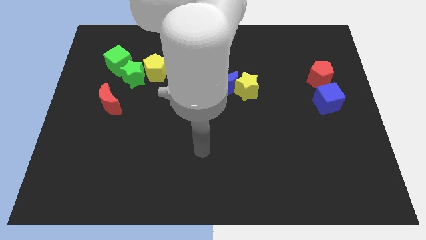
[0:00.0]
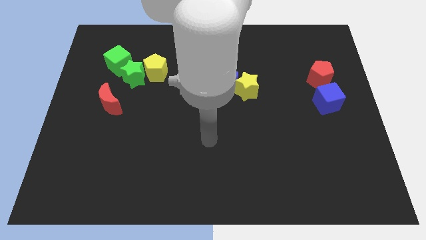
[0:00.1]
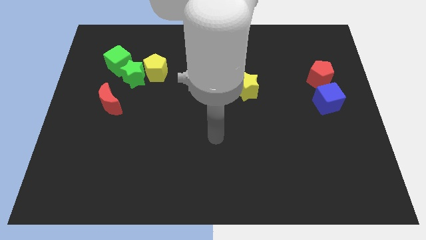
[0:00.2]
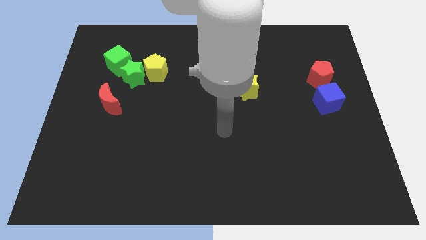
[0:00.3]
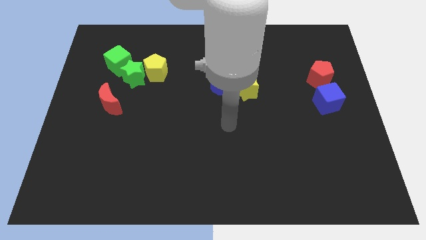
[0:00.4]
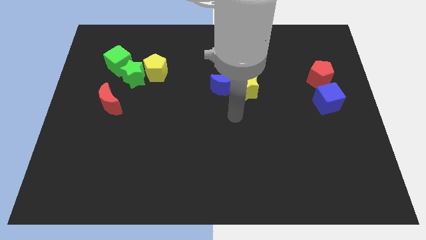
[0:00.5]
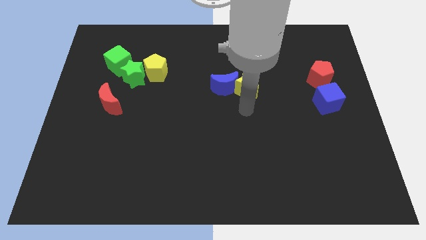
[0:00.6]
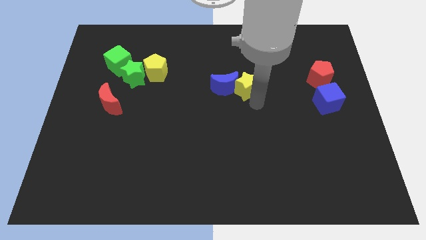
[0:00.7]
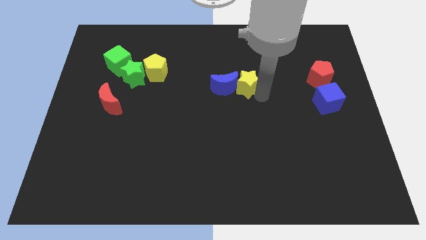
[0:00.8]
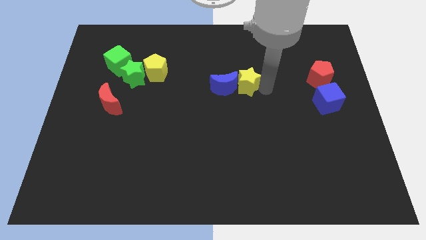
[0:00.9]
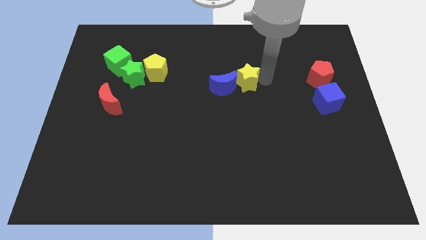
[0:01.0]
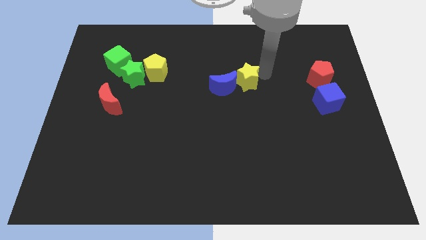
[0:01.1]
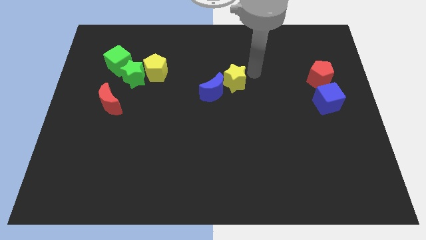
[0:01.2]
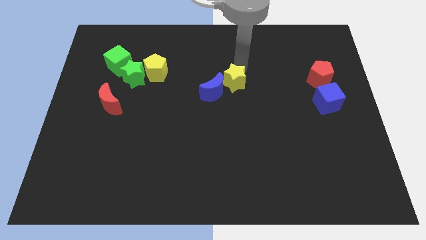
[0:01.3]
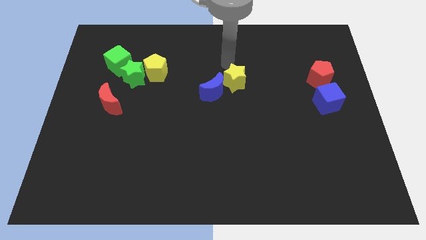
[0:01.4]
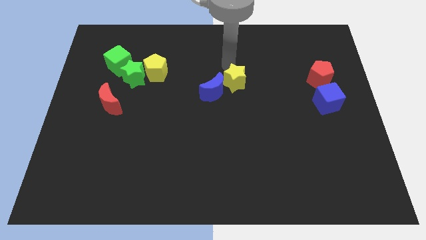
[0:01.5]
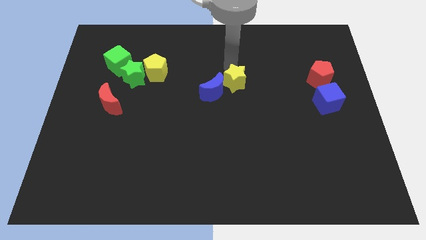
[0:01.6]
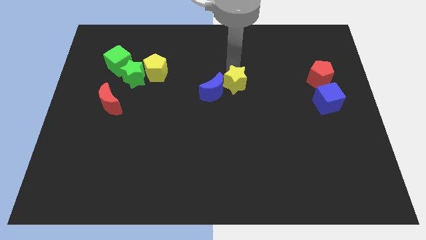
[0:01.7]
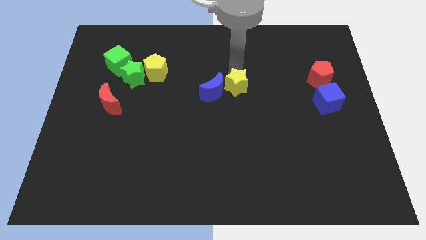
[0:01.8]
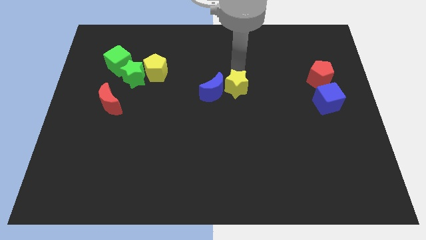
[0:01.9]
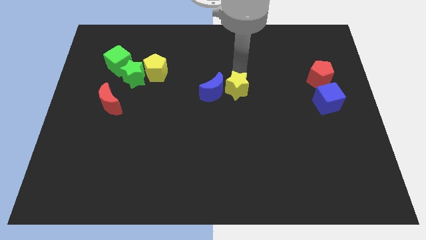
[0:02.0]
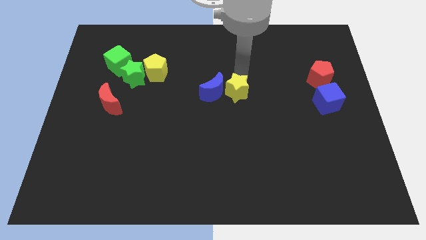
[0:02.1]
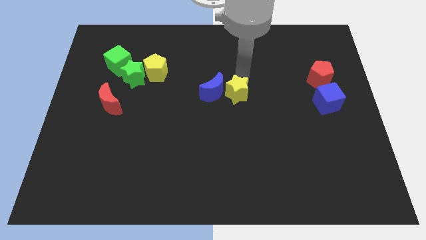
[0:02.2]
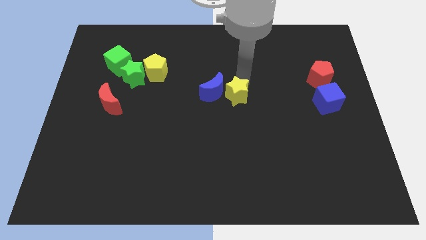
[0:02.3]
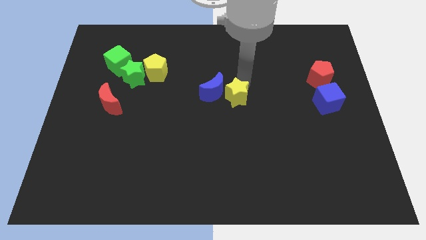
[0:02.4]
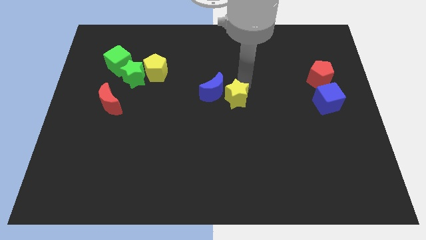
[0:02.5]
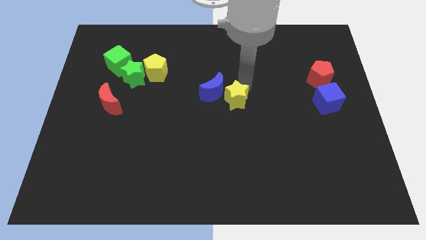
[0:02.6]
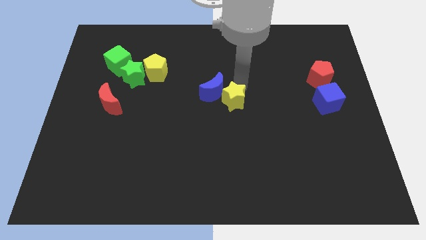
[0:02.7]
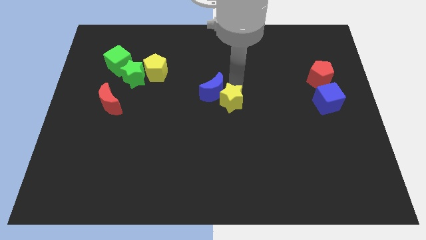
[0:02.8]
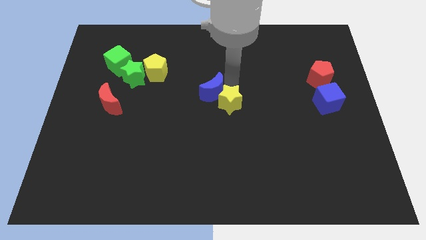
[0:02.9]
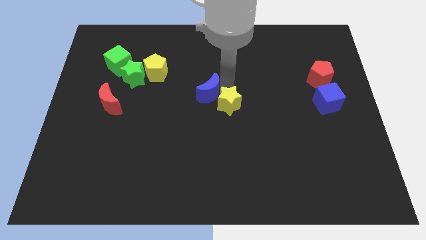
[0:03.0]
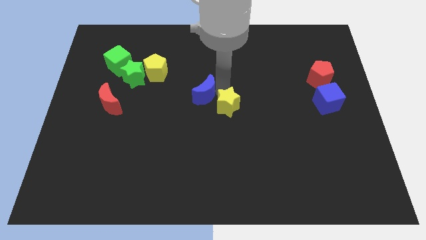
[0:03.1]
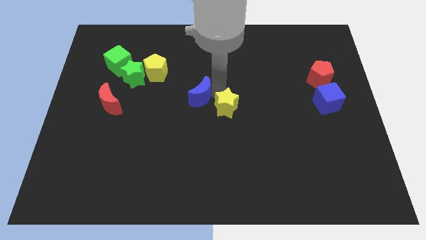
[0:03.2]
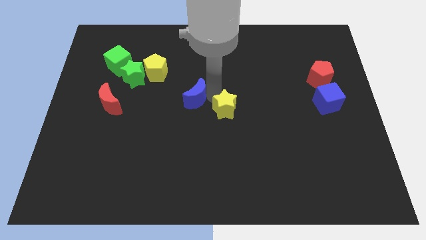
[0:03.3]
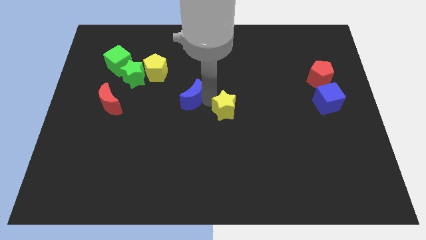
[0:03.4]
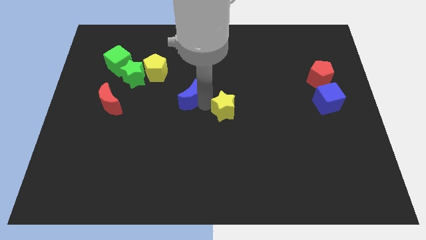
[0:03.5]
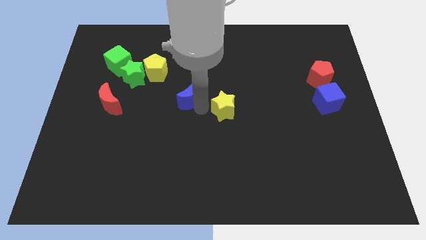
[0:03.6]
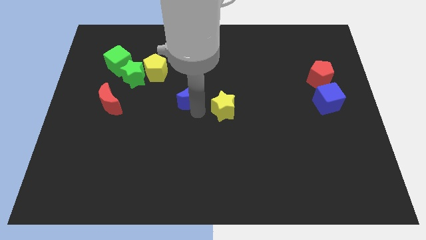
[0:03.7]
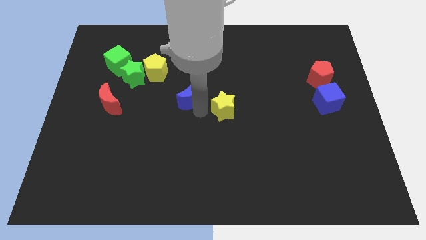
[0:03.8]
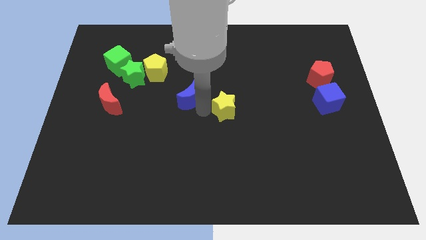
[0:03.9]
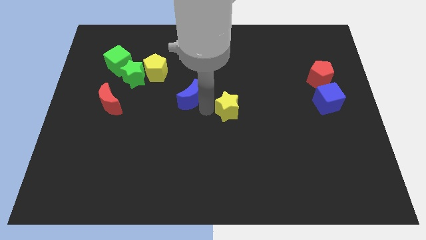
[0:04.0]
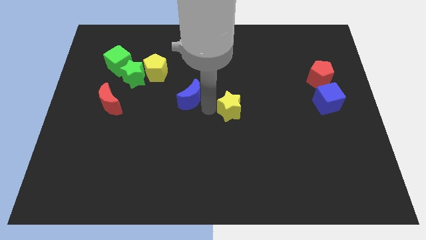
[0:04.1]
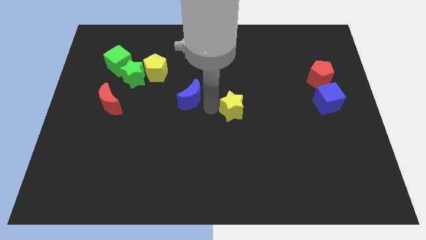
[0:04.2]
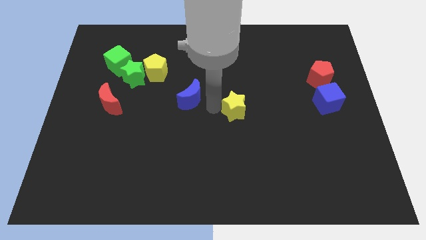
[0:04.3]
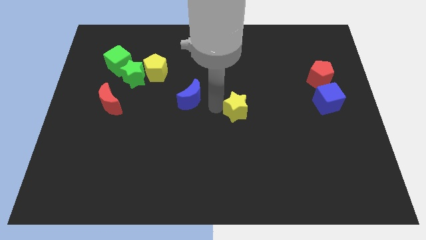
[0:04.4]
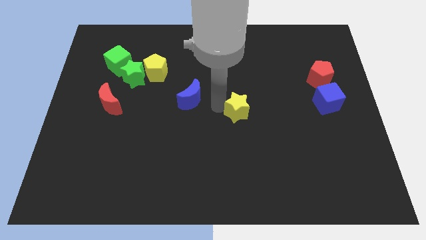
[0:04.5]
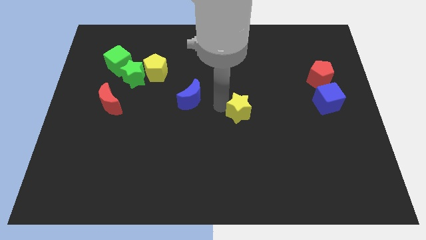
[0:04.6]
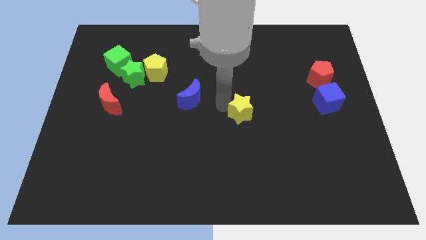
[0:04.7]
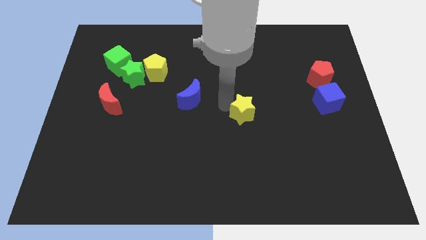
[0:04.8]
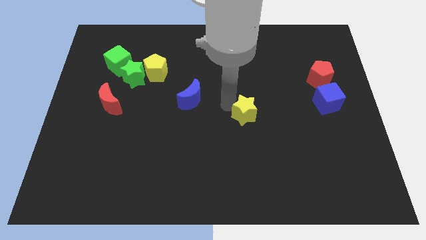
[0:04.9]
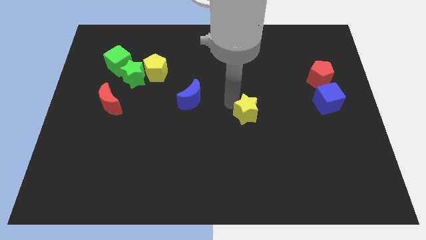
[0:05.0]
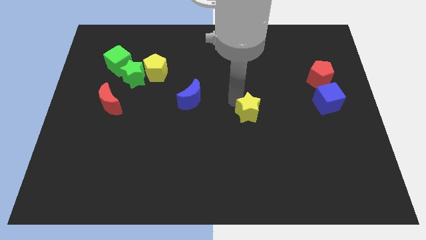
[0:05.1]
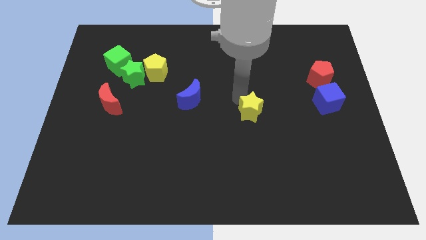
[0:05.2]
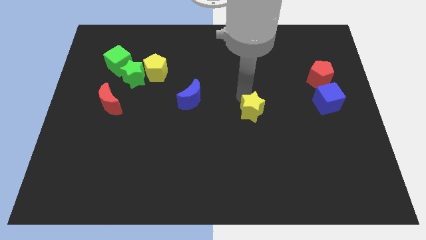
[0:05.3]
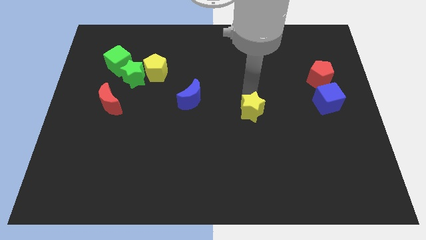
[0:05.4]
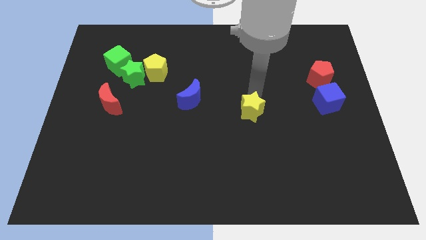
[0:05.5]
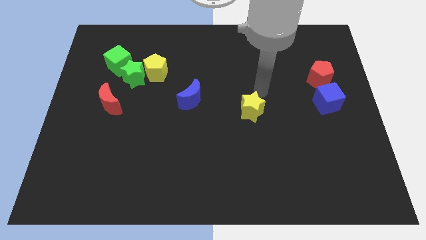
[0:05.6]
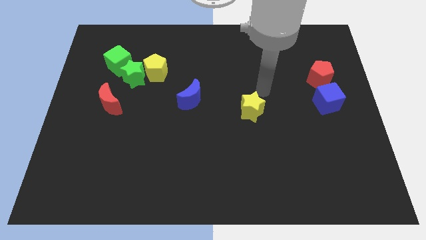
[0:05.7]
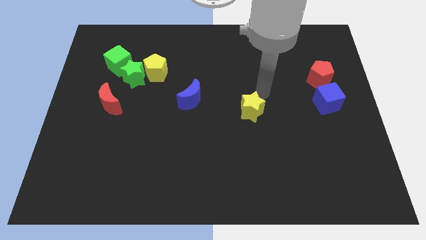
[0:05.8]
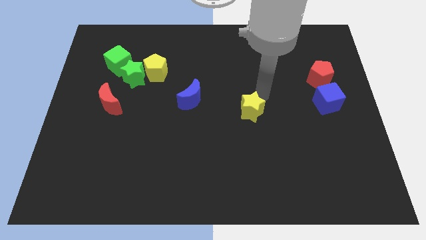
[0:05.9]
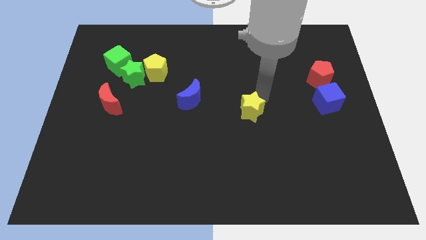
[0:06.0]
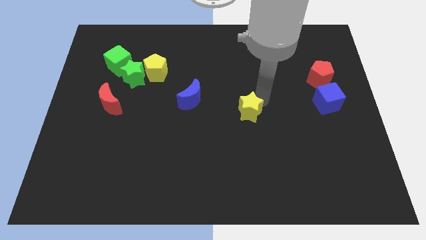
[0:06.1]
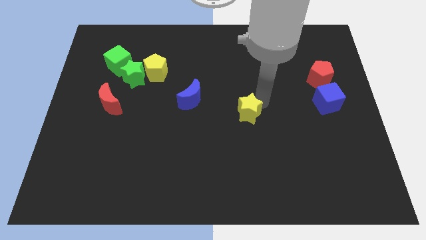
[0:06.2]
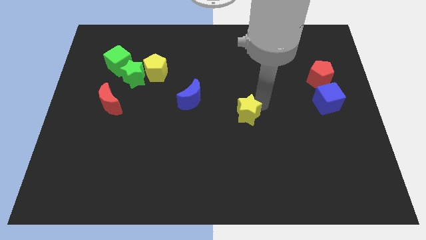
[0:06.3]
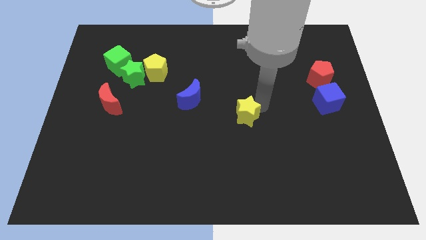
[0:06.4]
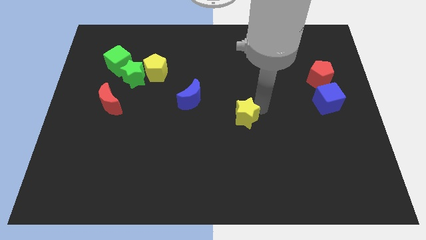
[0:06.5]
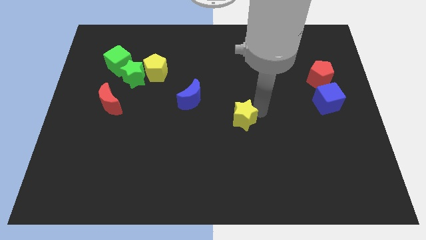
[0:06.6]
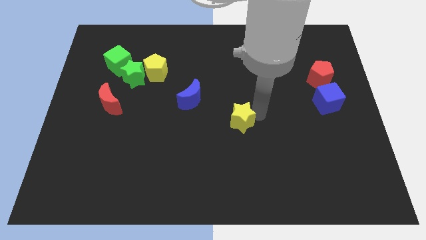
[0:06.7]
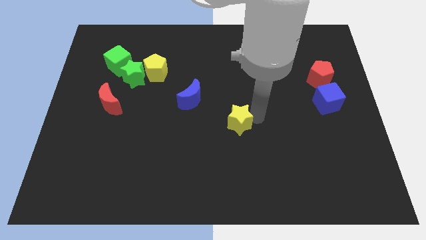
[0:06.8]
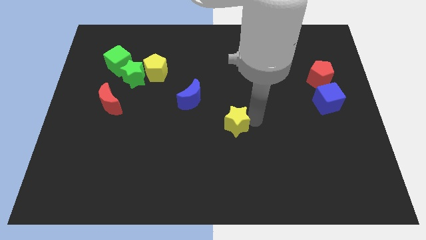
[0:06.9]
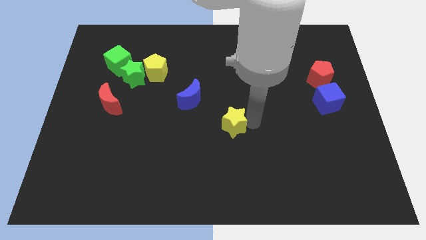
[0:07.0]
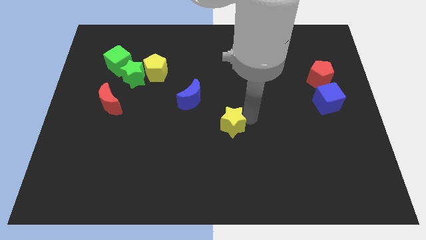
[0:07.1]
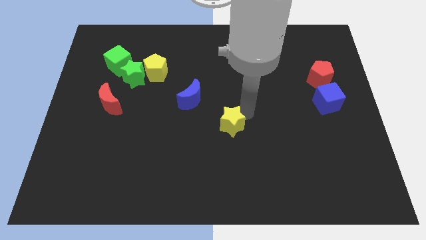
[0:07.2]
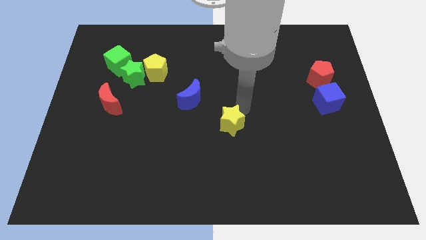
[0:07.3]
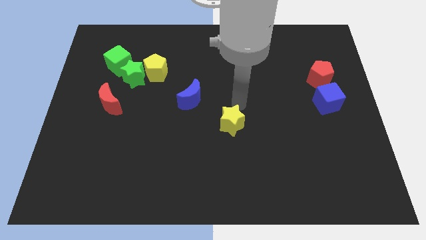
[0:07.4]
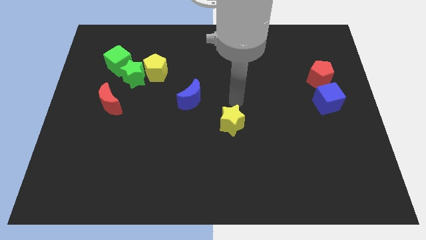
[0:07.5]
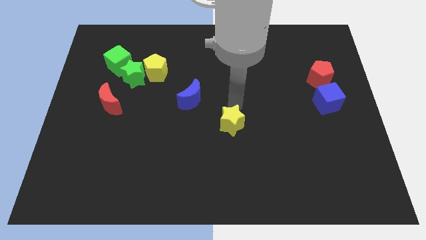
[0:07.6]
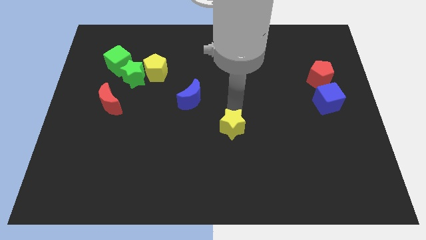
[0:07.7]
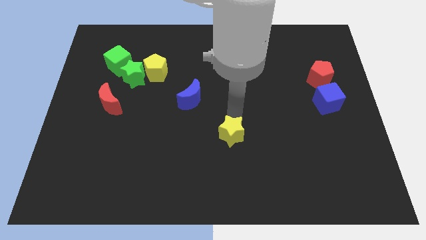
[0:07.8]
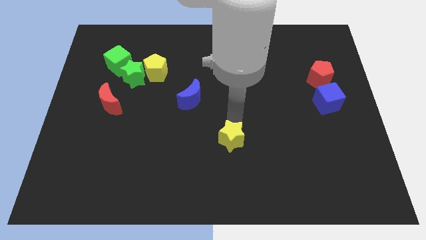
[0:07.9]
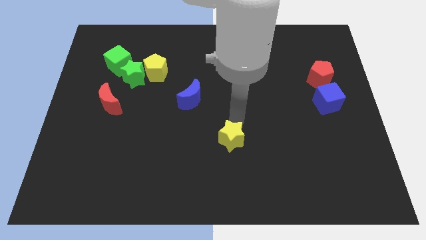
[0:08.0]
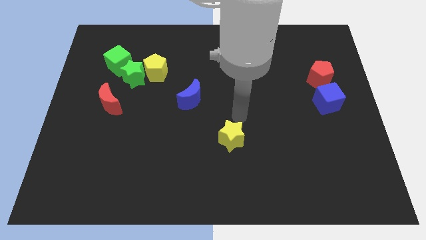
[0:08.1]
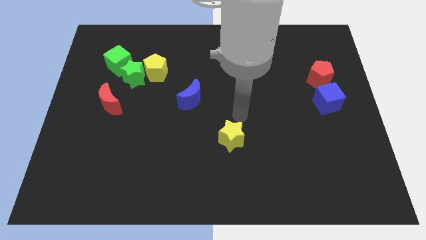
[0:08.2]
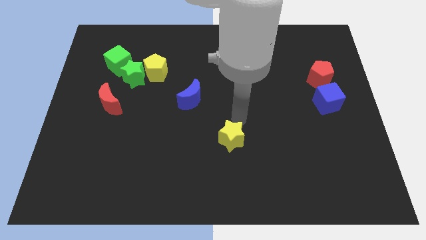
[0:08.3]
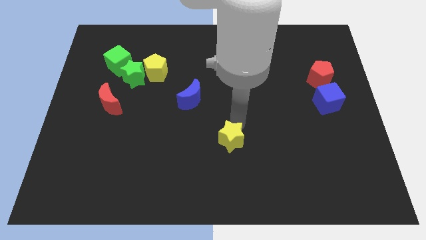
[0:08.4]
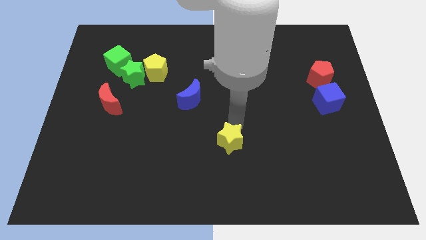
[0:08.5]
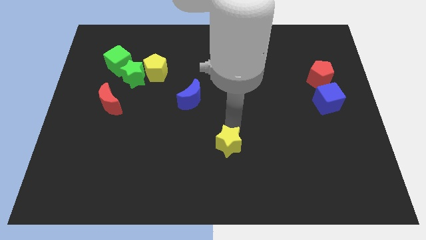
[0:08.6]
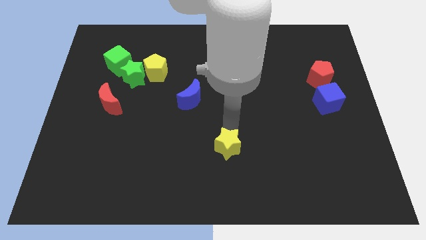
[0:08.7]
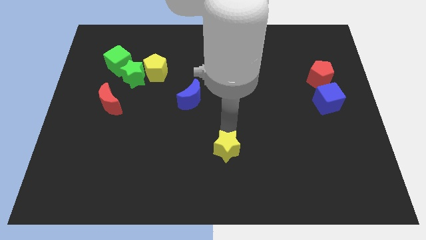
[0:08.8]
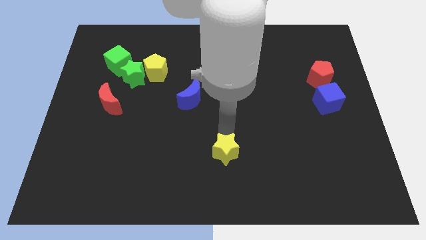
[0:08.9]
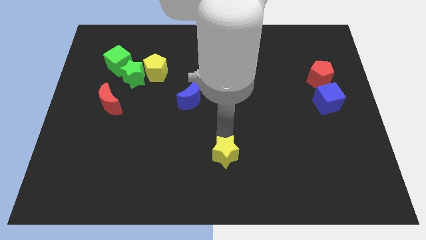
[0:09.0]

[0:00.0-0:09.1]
push the yellow star to the bottom side
